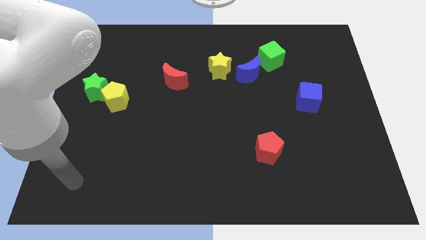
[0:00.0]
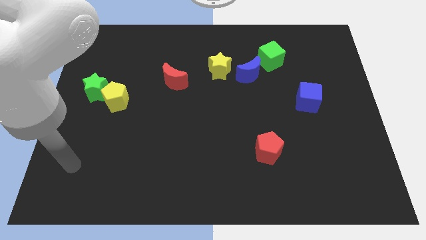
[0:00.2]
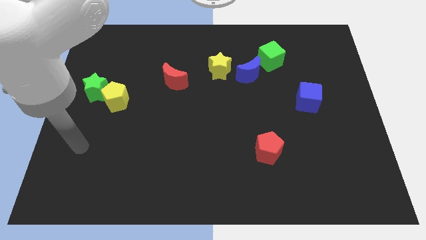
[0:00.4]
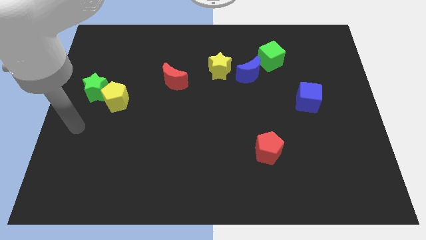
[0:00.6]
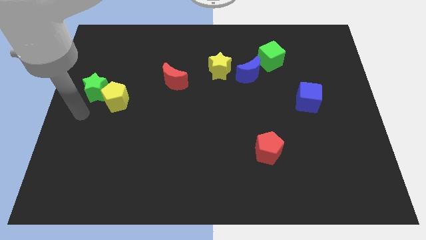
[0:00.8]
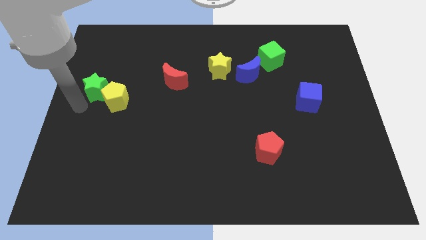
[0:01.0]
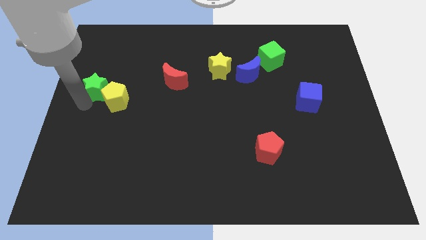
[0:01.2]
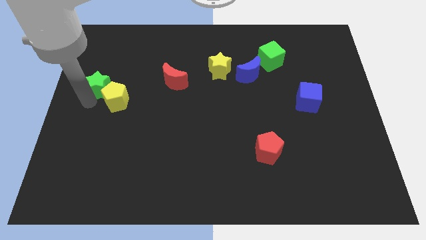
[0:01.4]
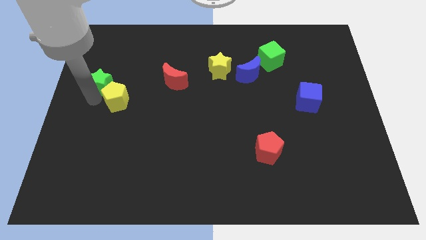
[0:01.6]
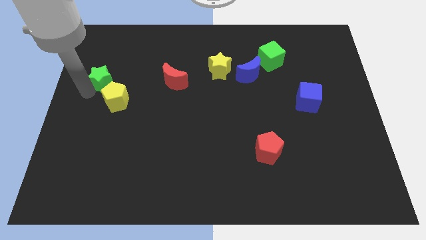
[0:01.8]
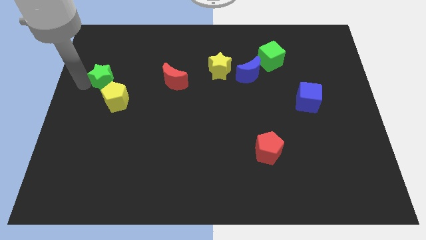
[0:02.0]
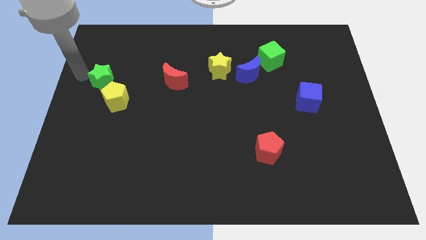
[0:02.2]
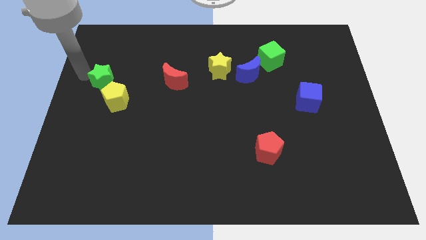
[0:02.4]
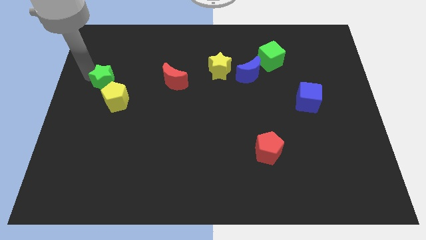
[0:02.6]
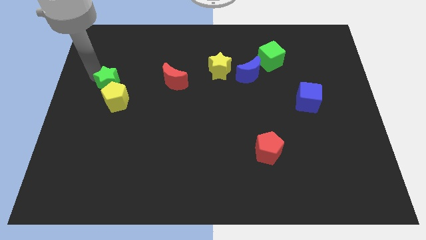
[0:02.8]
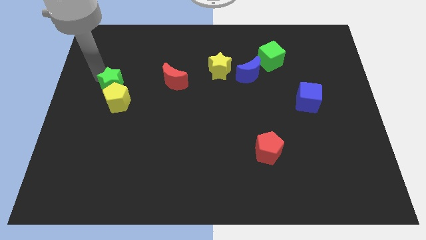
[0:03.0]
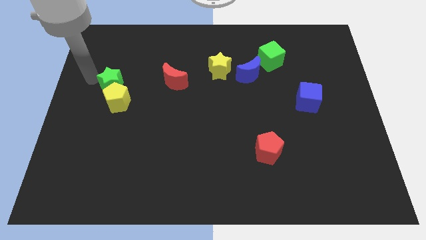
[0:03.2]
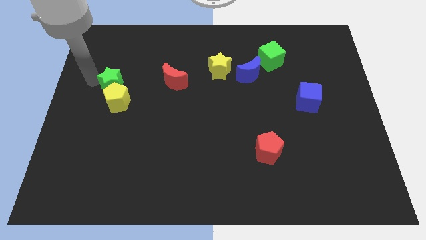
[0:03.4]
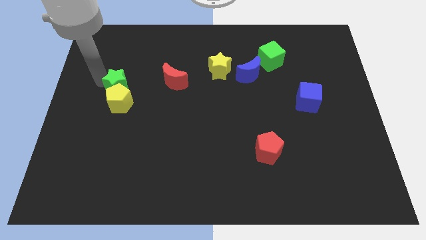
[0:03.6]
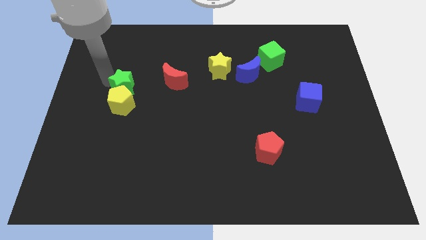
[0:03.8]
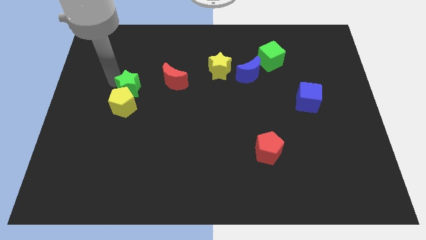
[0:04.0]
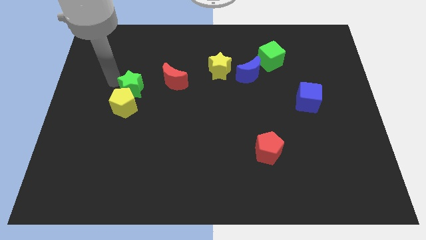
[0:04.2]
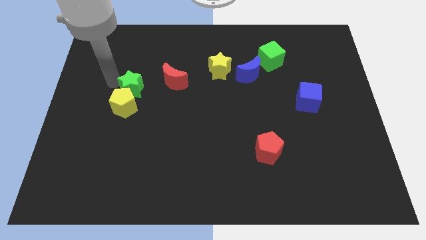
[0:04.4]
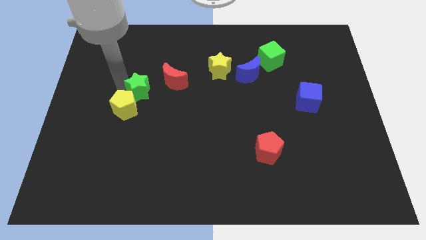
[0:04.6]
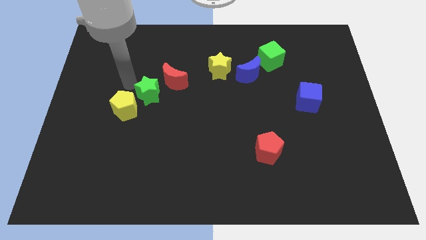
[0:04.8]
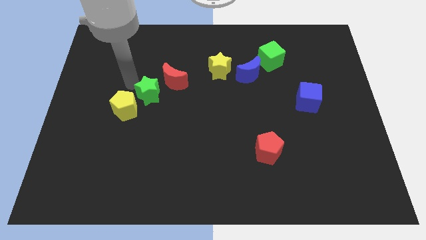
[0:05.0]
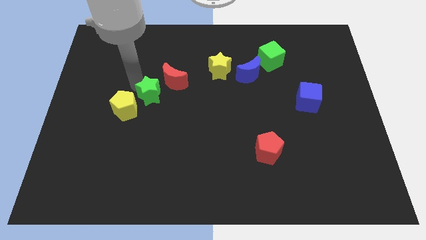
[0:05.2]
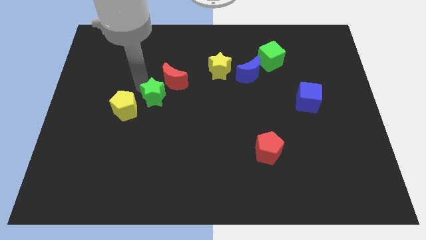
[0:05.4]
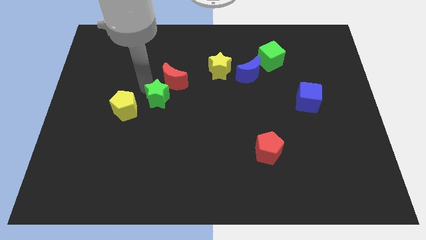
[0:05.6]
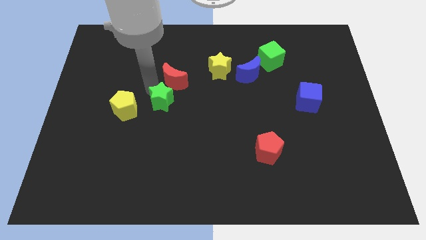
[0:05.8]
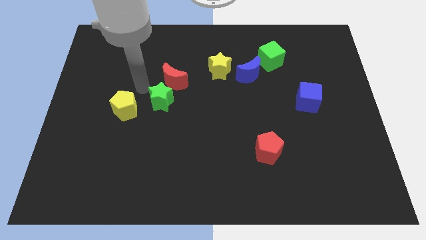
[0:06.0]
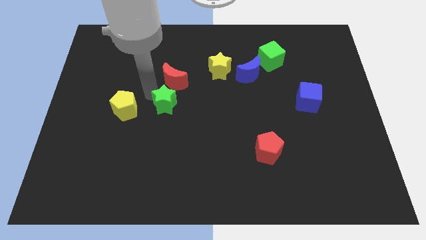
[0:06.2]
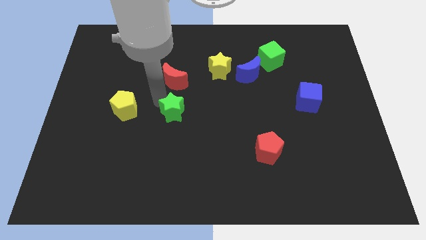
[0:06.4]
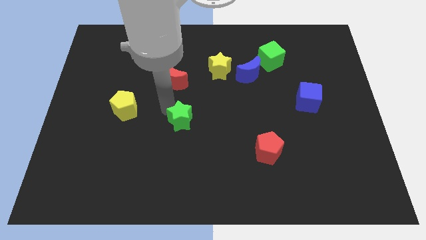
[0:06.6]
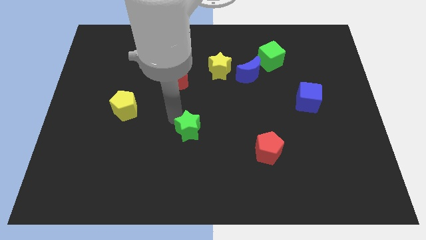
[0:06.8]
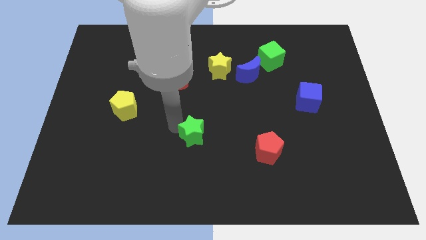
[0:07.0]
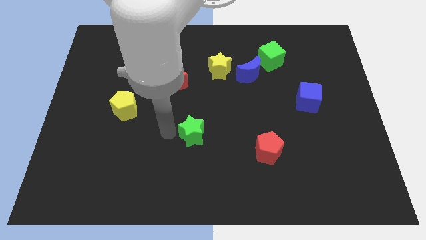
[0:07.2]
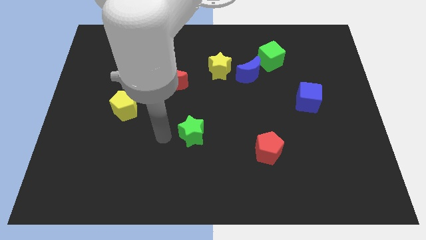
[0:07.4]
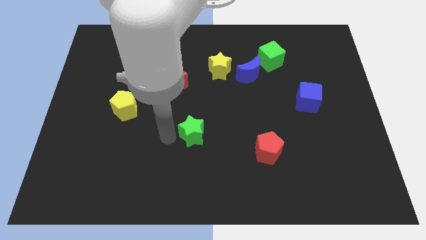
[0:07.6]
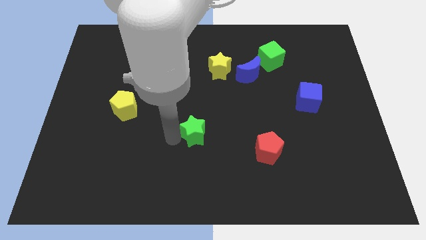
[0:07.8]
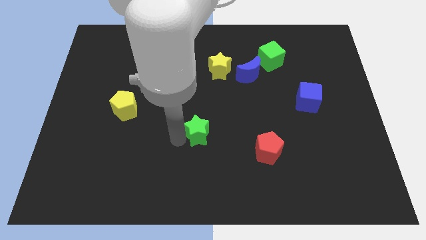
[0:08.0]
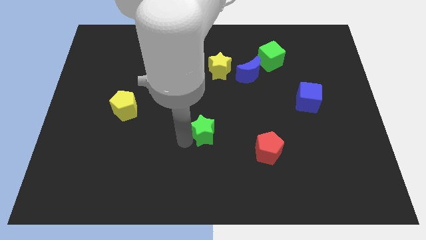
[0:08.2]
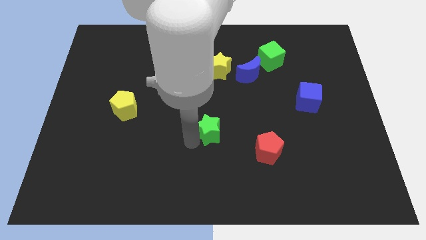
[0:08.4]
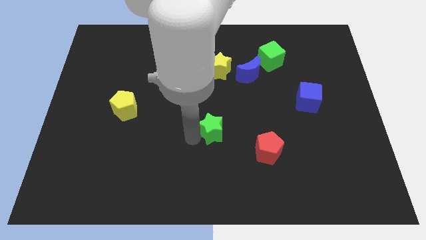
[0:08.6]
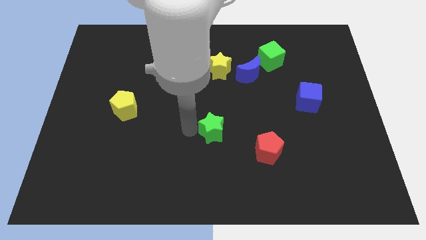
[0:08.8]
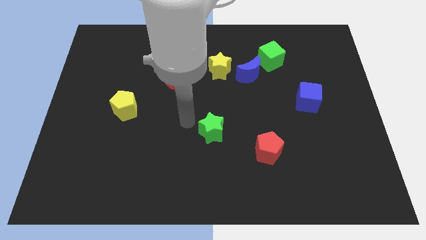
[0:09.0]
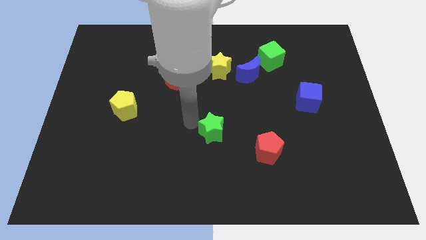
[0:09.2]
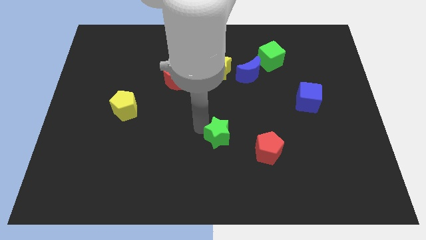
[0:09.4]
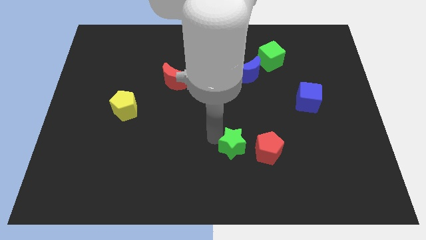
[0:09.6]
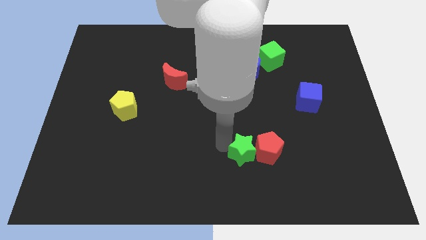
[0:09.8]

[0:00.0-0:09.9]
put the green star towards the red pentagon

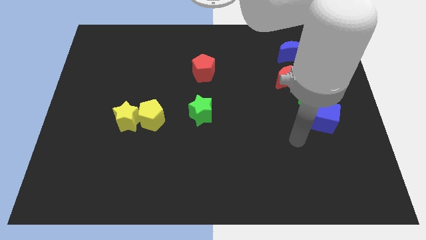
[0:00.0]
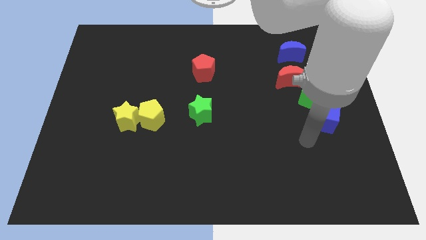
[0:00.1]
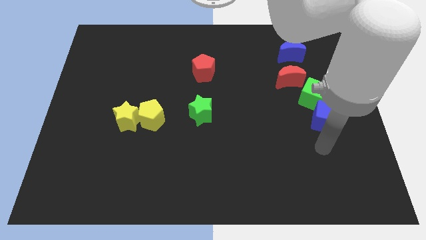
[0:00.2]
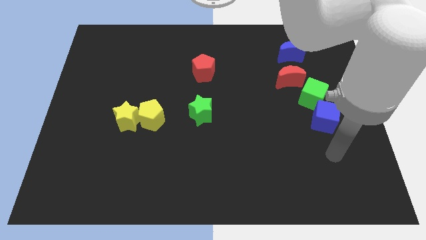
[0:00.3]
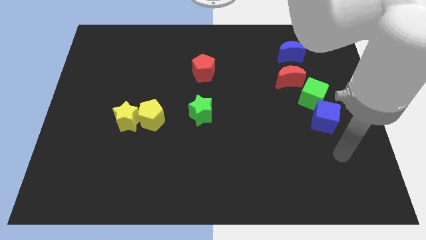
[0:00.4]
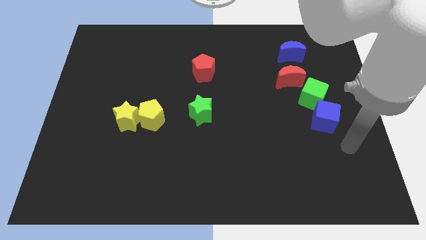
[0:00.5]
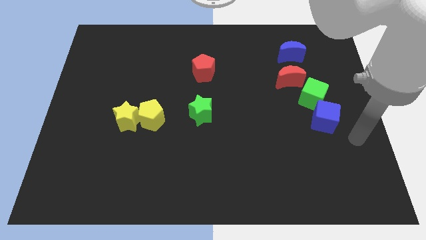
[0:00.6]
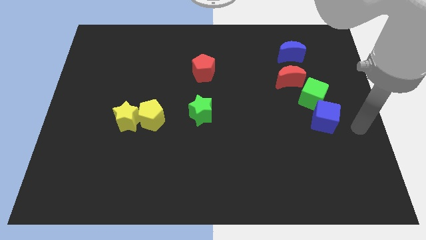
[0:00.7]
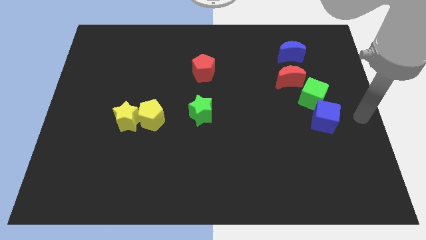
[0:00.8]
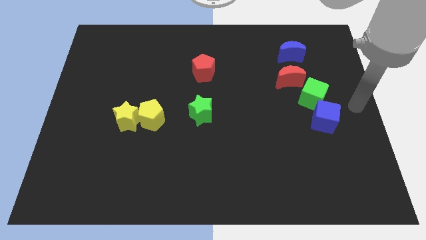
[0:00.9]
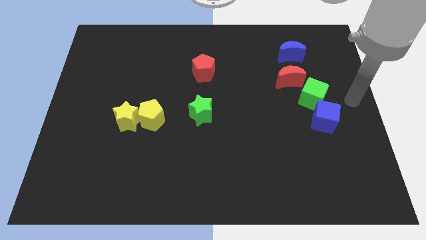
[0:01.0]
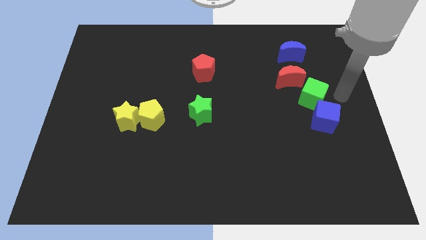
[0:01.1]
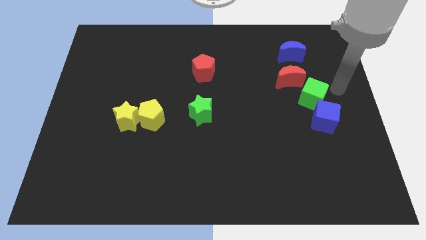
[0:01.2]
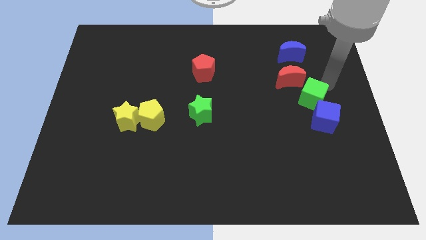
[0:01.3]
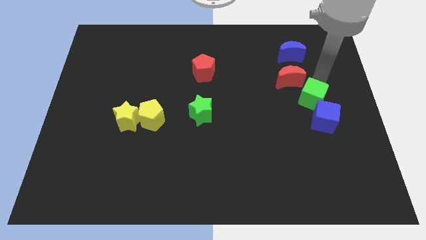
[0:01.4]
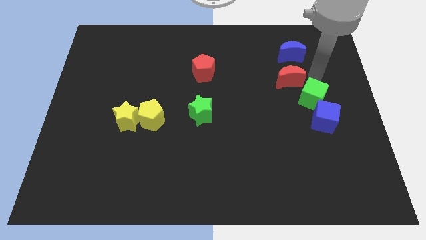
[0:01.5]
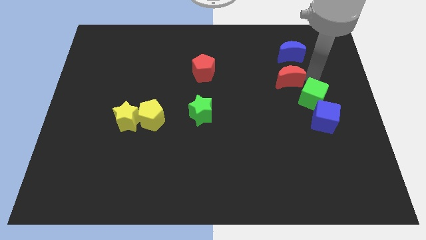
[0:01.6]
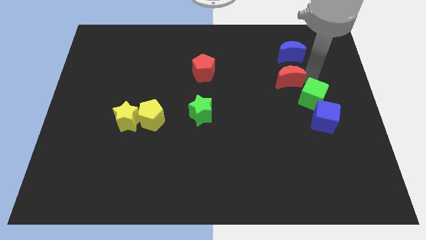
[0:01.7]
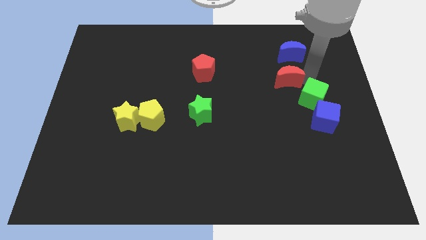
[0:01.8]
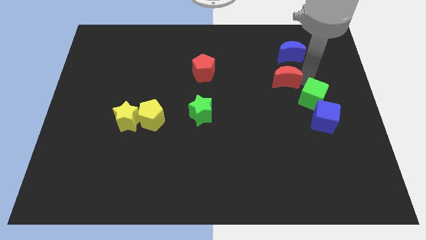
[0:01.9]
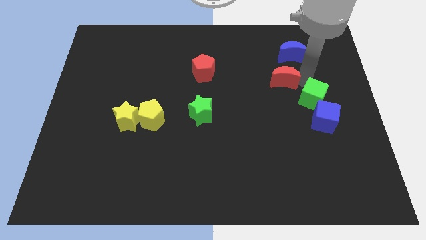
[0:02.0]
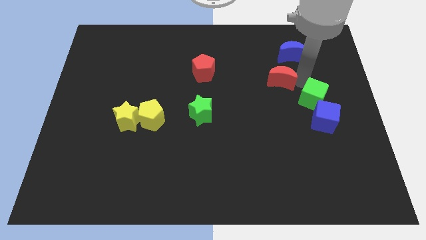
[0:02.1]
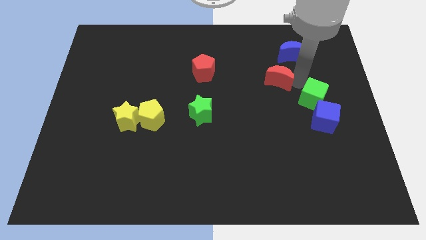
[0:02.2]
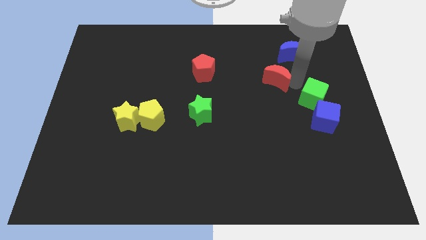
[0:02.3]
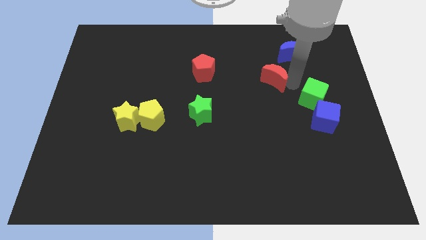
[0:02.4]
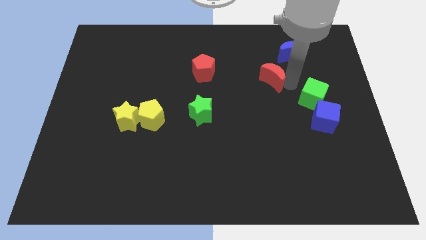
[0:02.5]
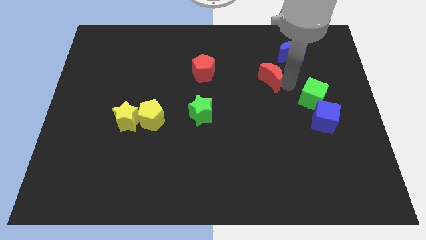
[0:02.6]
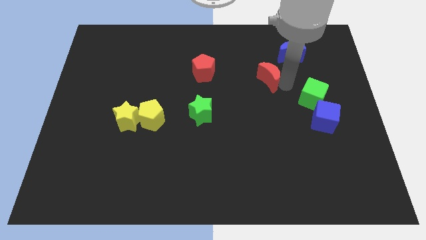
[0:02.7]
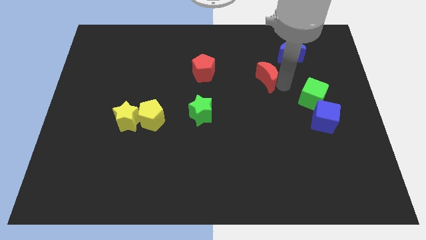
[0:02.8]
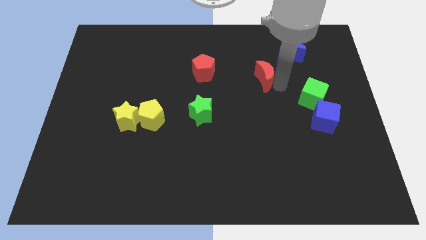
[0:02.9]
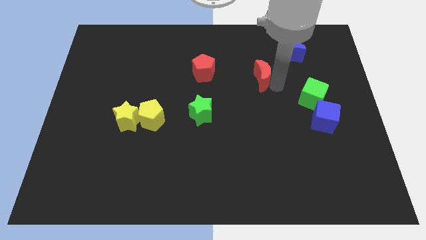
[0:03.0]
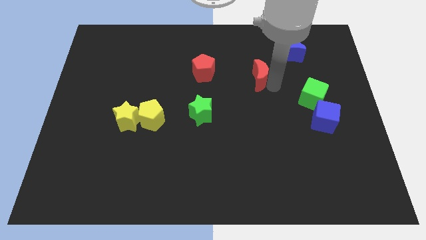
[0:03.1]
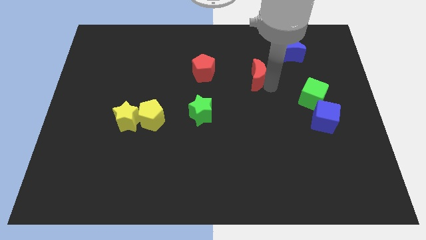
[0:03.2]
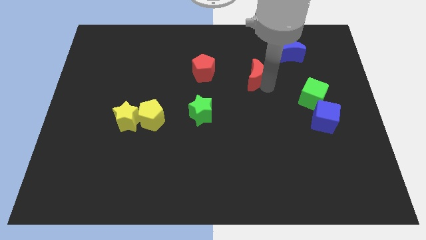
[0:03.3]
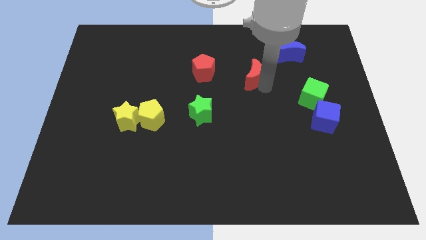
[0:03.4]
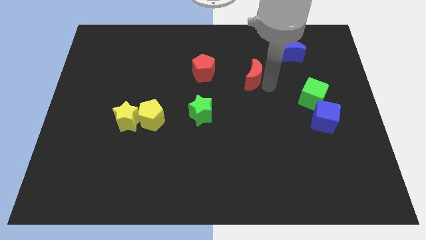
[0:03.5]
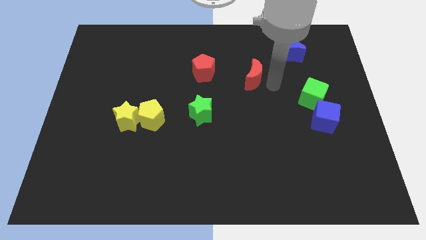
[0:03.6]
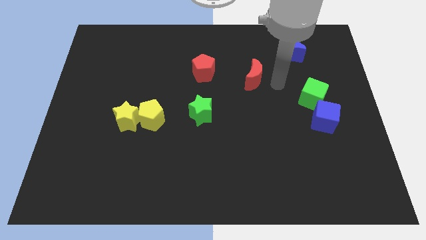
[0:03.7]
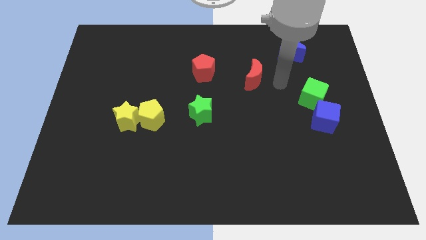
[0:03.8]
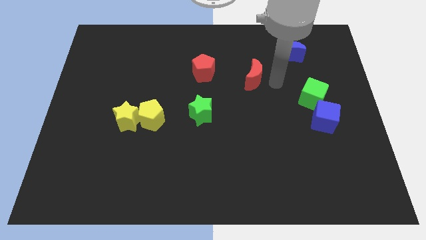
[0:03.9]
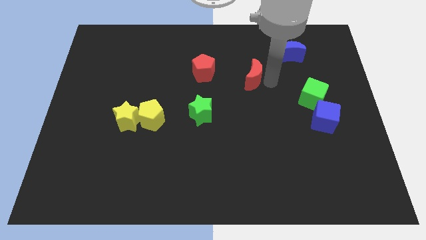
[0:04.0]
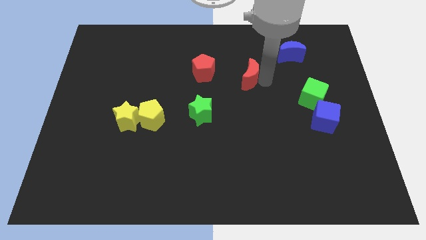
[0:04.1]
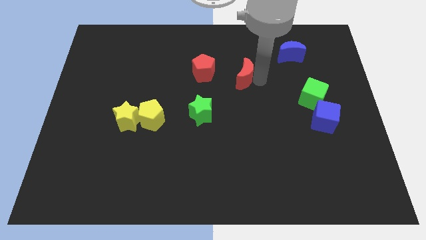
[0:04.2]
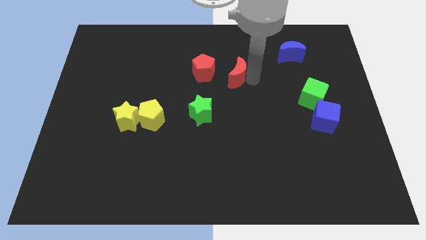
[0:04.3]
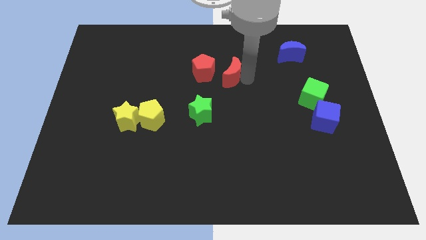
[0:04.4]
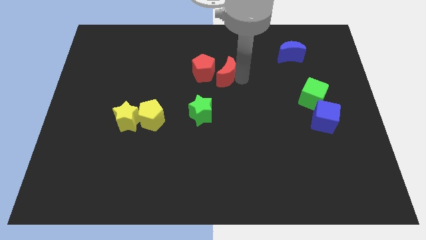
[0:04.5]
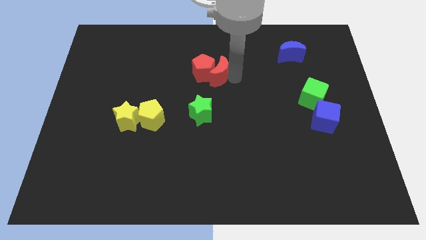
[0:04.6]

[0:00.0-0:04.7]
push the red moon towards the red pentagon
